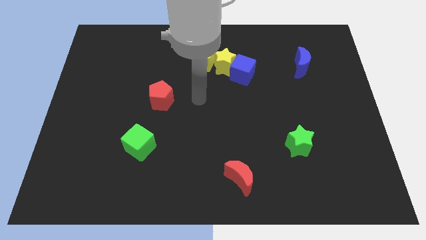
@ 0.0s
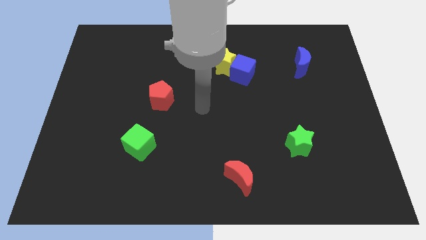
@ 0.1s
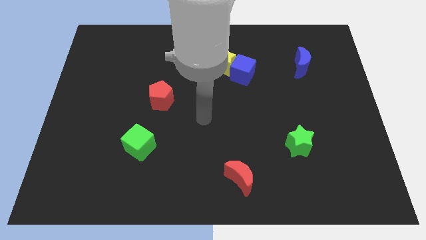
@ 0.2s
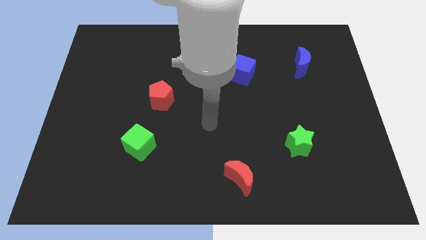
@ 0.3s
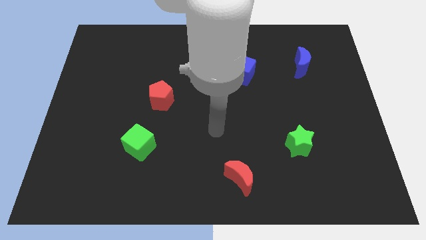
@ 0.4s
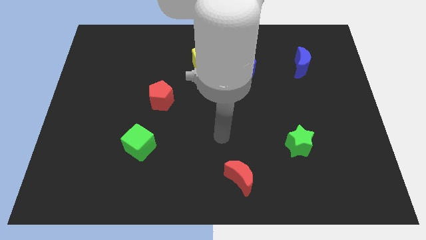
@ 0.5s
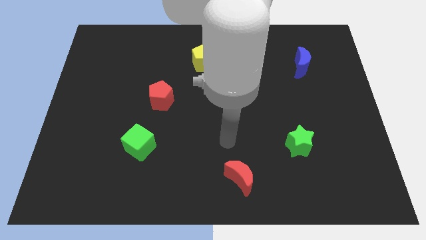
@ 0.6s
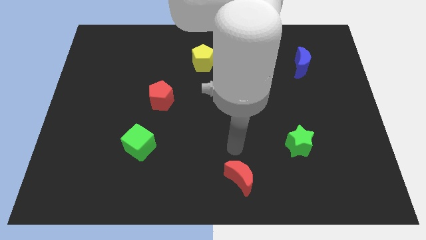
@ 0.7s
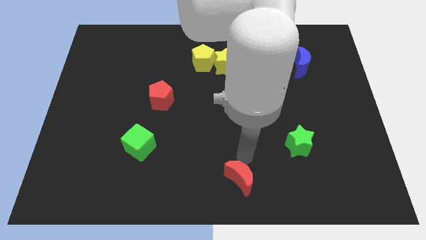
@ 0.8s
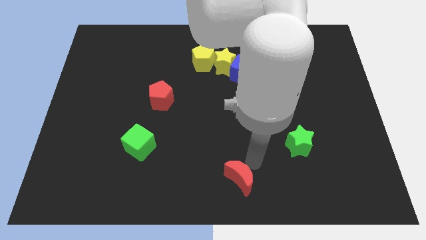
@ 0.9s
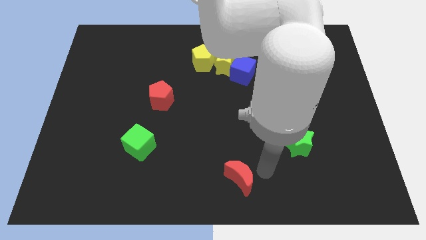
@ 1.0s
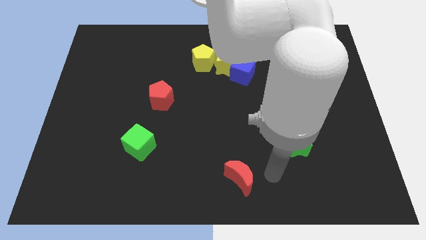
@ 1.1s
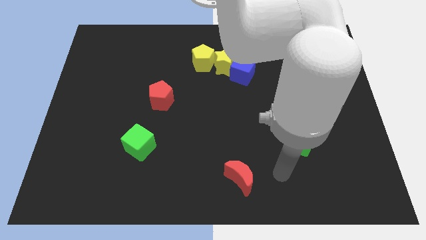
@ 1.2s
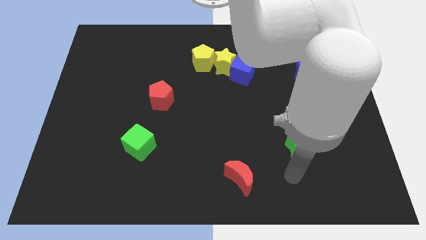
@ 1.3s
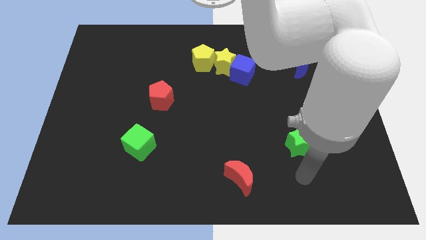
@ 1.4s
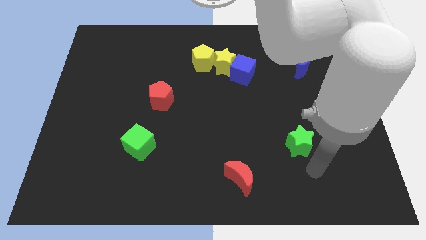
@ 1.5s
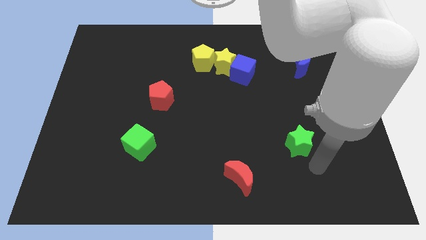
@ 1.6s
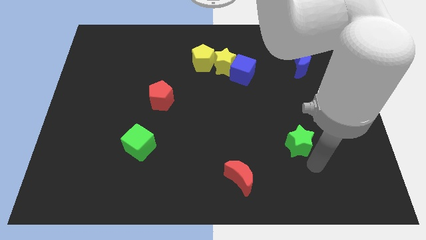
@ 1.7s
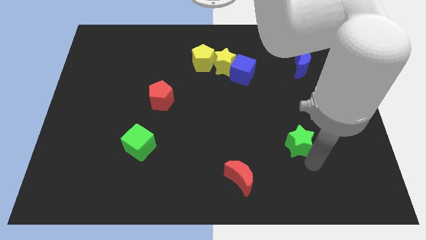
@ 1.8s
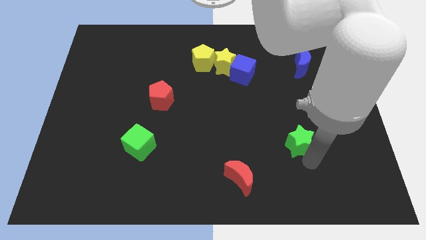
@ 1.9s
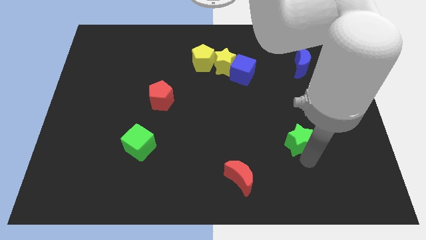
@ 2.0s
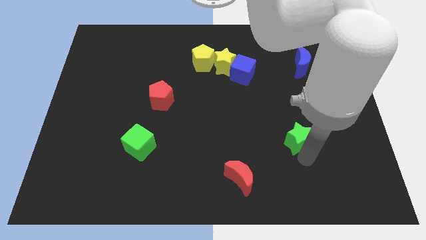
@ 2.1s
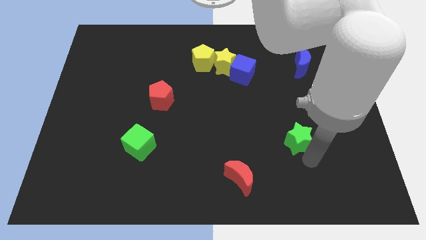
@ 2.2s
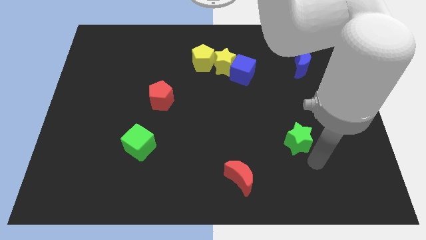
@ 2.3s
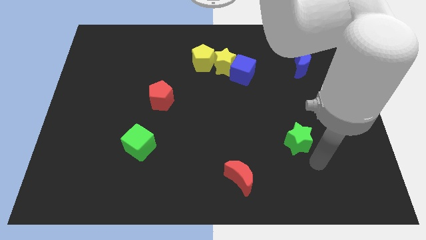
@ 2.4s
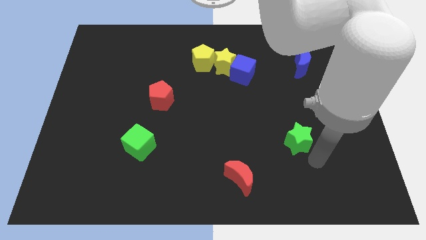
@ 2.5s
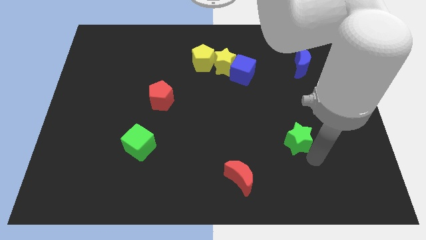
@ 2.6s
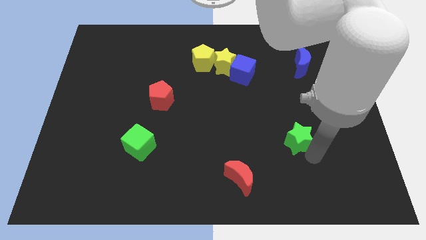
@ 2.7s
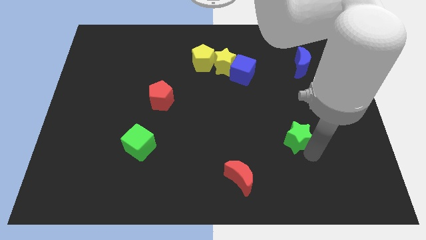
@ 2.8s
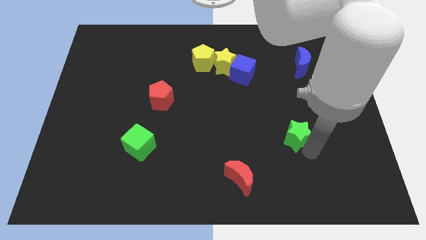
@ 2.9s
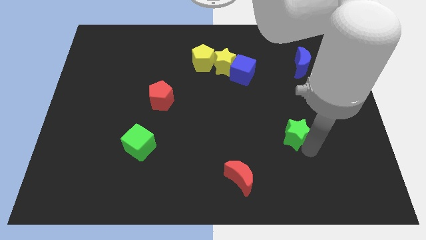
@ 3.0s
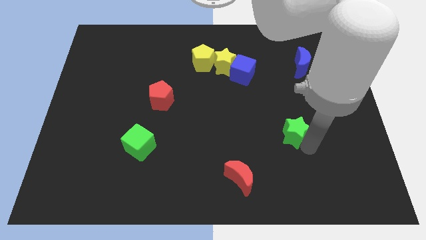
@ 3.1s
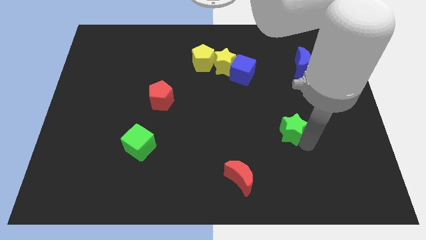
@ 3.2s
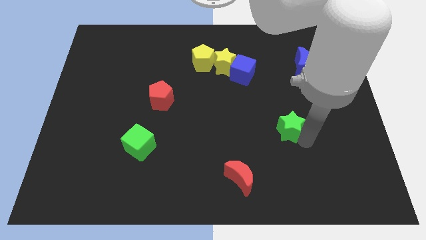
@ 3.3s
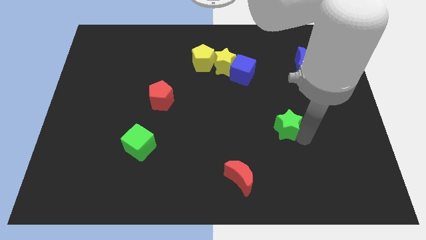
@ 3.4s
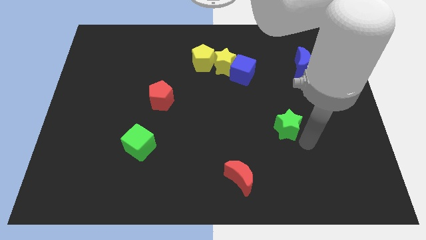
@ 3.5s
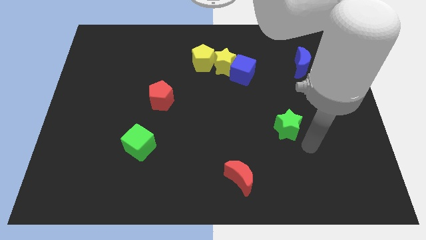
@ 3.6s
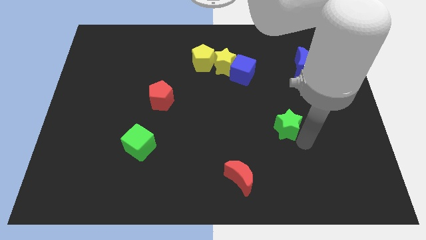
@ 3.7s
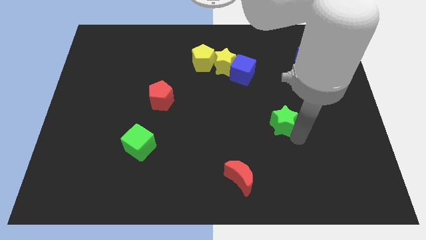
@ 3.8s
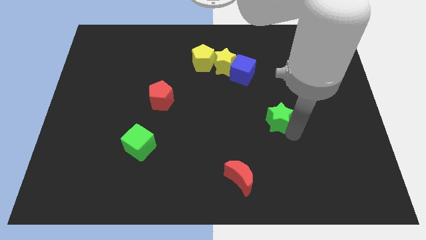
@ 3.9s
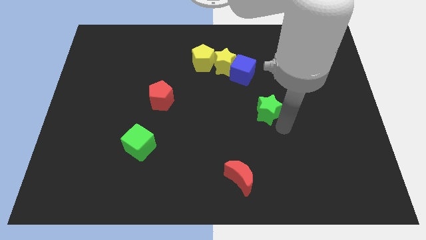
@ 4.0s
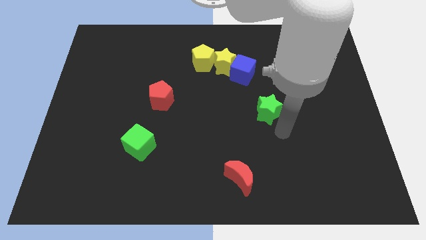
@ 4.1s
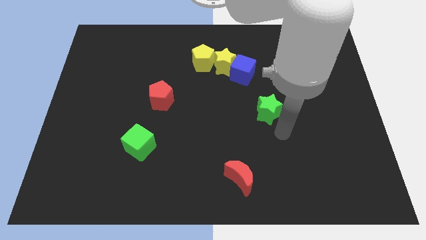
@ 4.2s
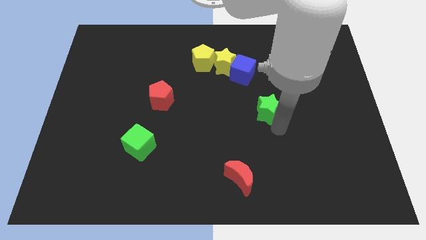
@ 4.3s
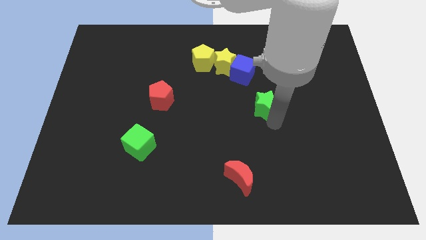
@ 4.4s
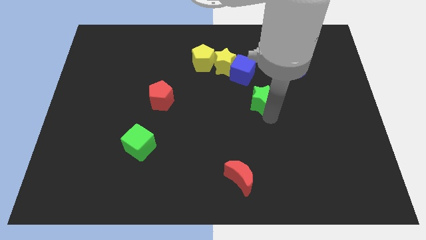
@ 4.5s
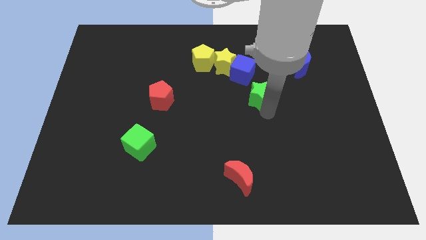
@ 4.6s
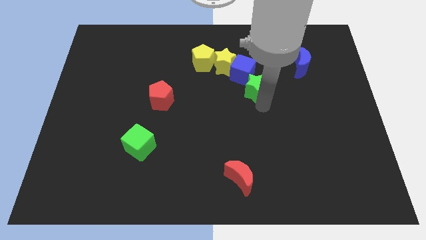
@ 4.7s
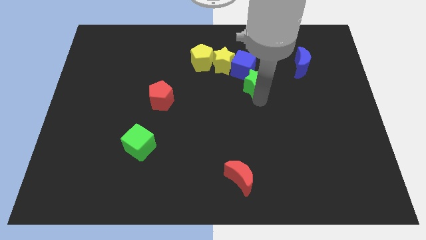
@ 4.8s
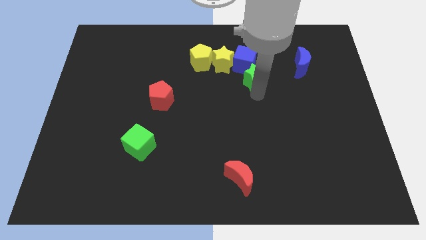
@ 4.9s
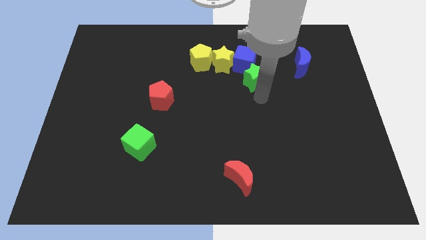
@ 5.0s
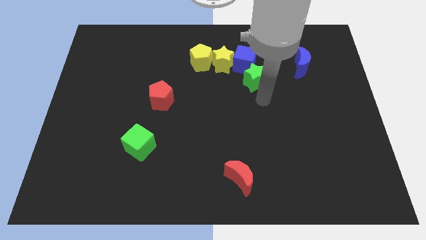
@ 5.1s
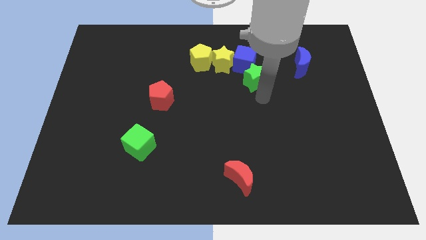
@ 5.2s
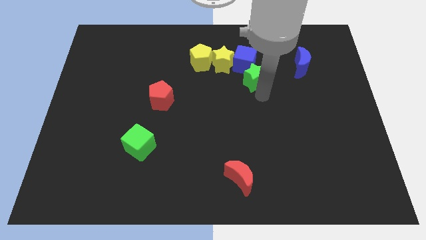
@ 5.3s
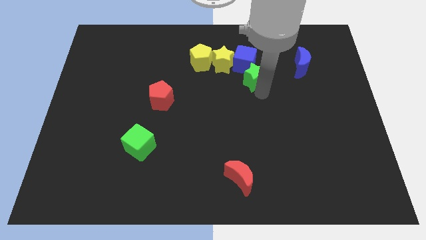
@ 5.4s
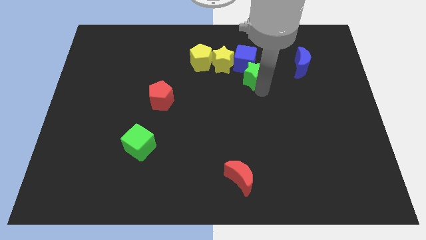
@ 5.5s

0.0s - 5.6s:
push the green star close to the blue cube

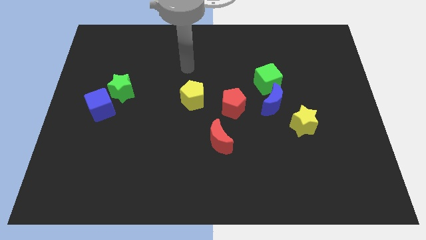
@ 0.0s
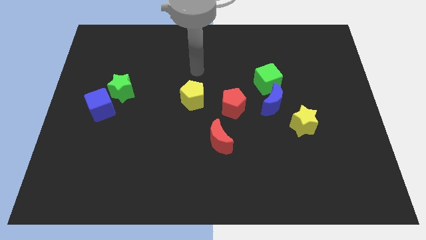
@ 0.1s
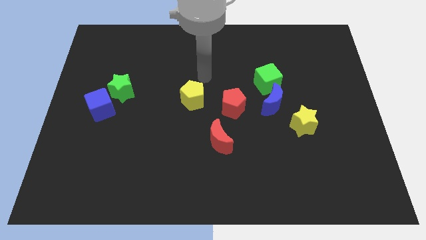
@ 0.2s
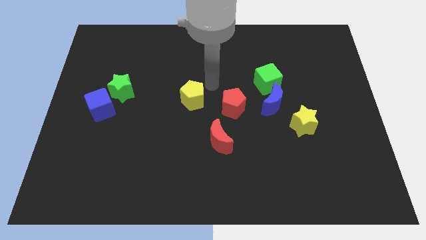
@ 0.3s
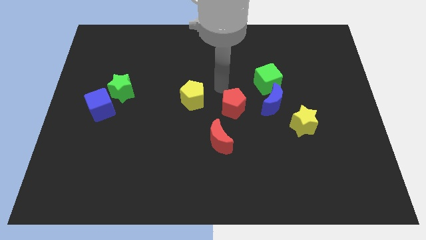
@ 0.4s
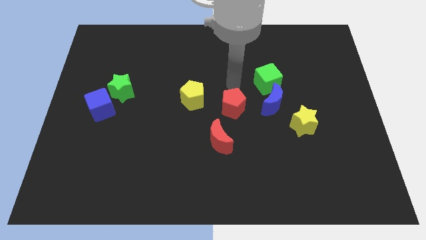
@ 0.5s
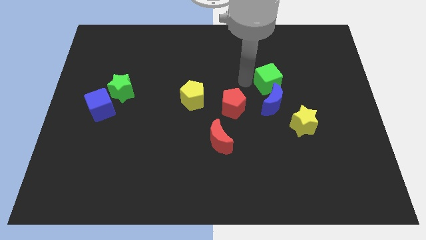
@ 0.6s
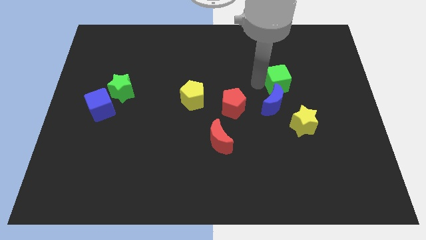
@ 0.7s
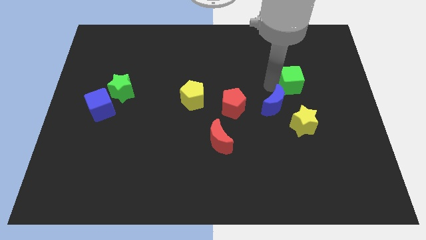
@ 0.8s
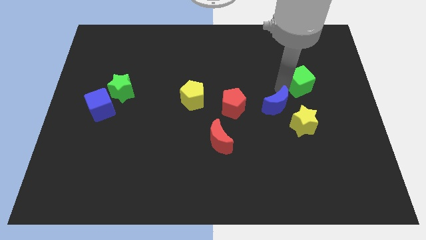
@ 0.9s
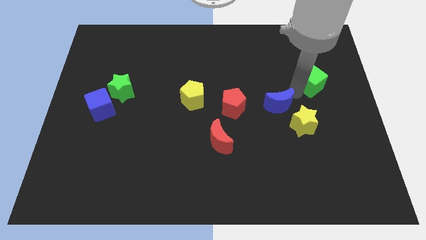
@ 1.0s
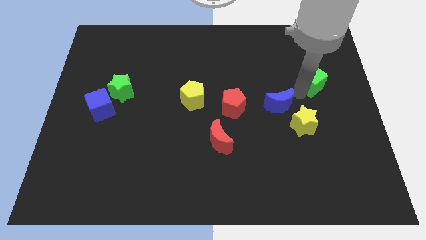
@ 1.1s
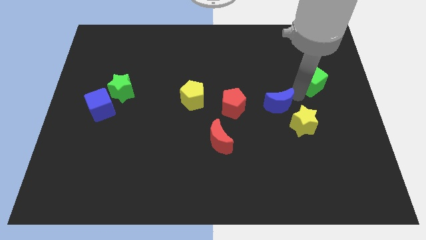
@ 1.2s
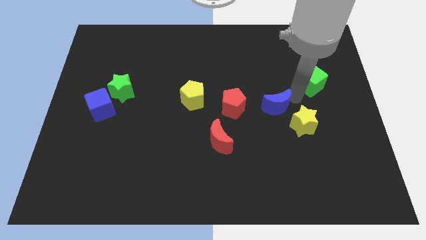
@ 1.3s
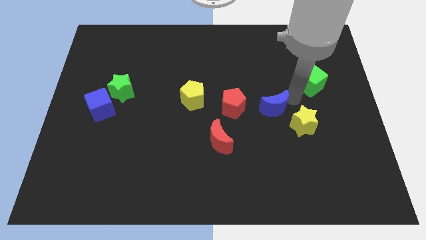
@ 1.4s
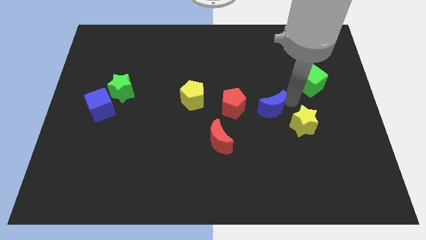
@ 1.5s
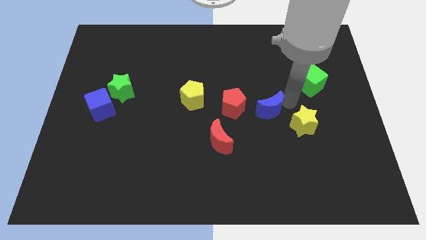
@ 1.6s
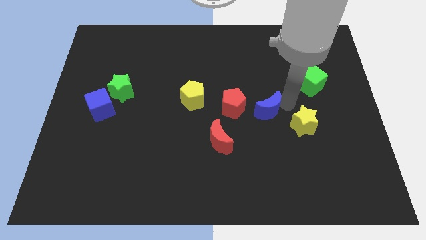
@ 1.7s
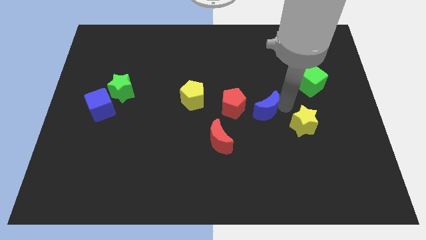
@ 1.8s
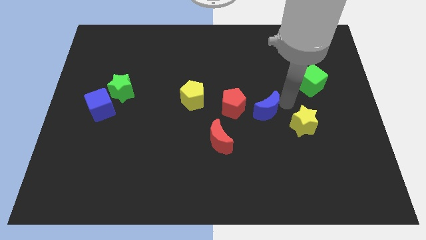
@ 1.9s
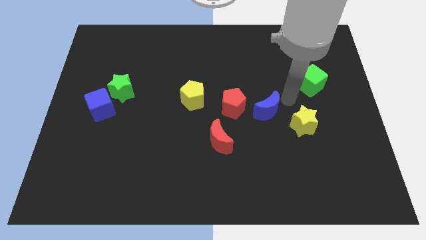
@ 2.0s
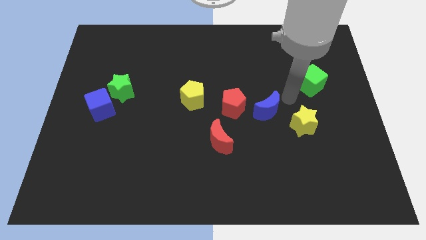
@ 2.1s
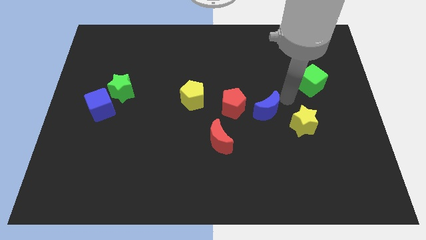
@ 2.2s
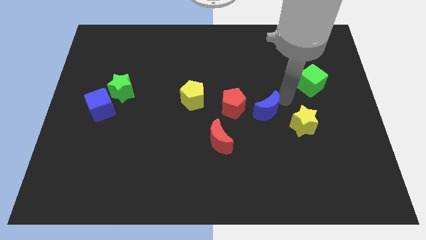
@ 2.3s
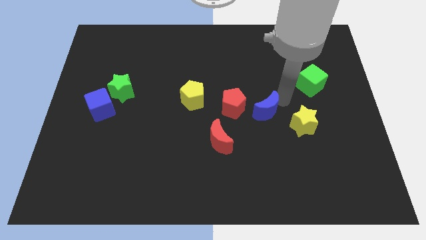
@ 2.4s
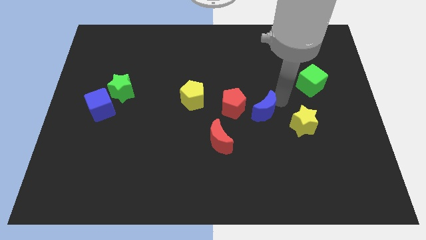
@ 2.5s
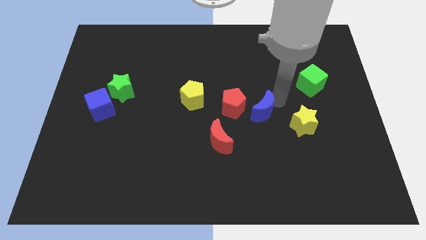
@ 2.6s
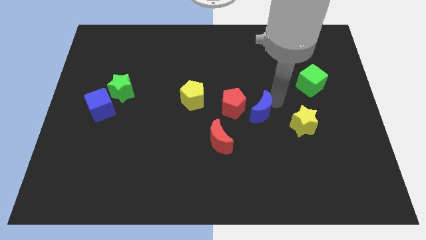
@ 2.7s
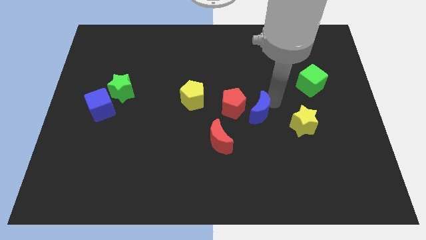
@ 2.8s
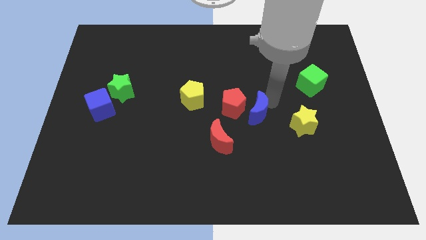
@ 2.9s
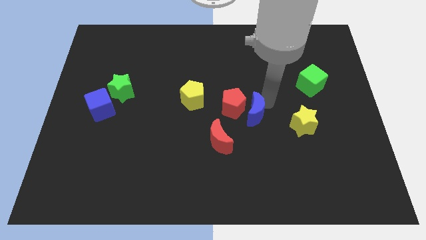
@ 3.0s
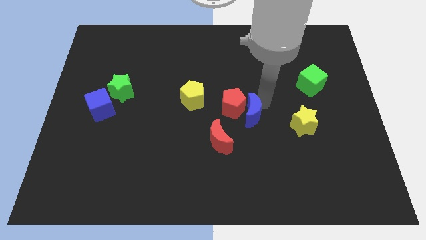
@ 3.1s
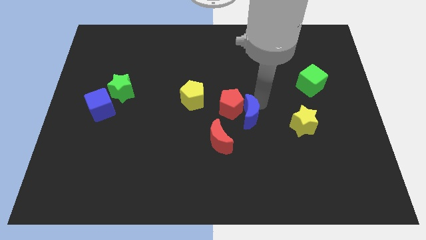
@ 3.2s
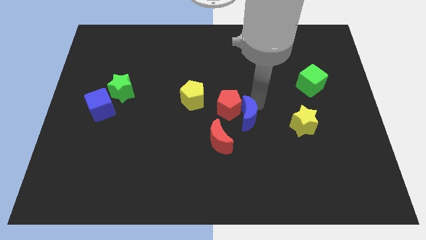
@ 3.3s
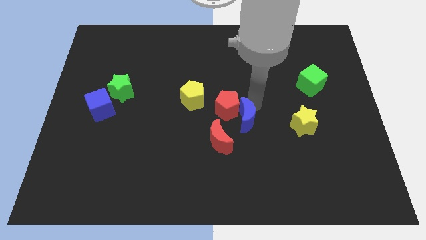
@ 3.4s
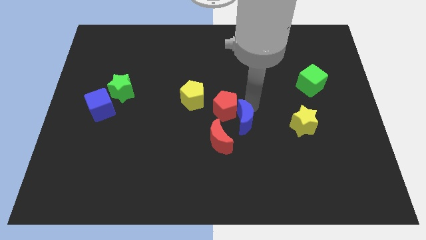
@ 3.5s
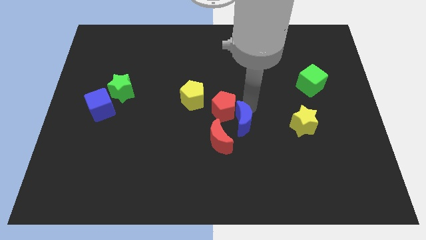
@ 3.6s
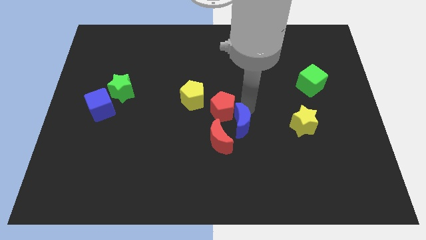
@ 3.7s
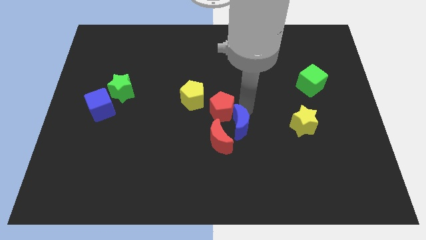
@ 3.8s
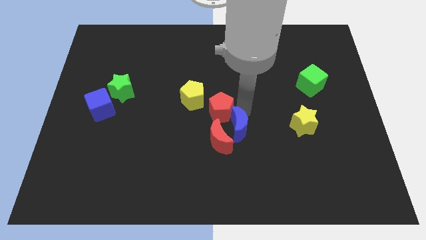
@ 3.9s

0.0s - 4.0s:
slide the blue moon close to the red moon
